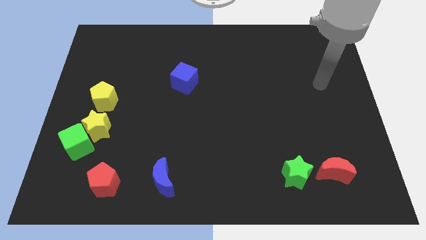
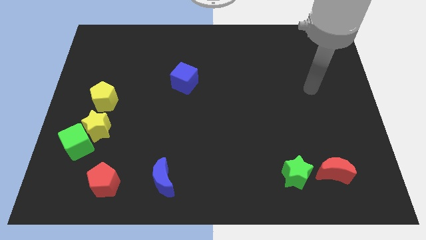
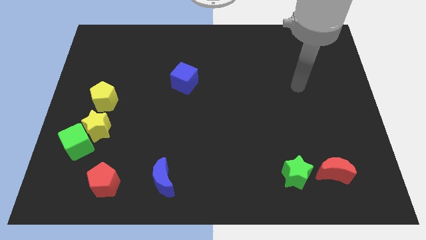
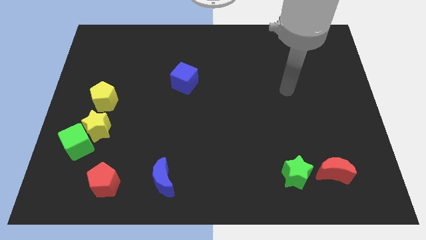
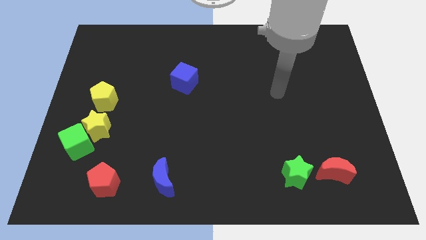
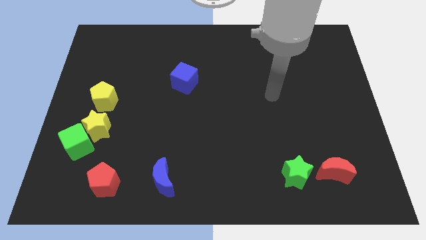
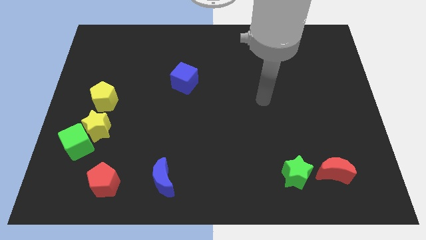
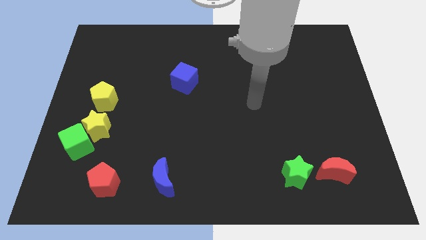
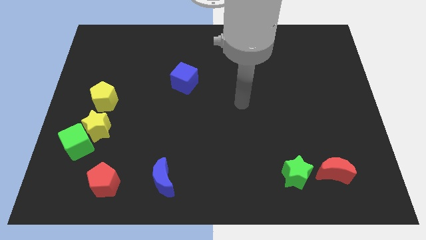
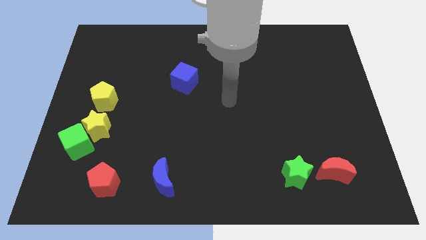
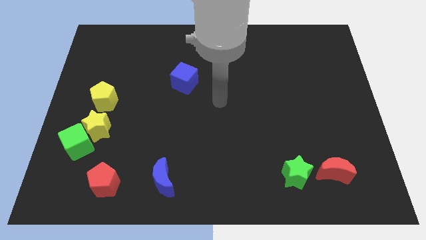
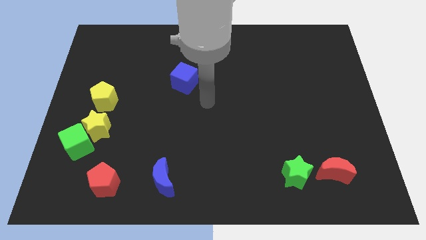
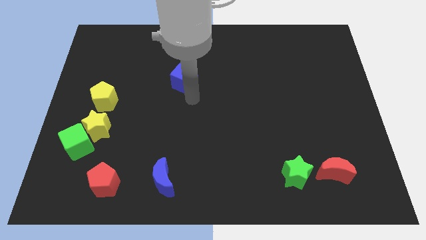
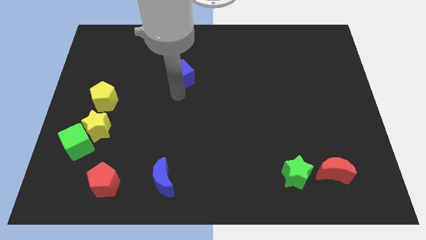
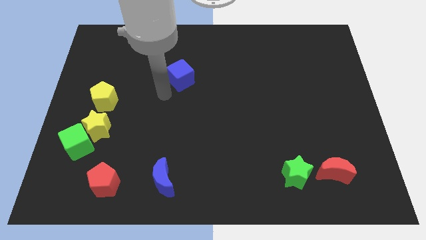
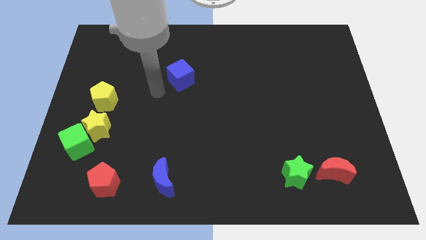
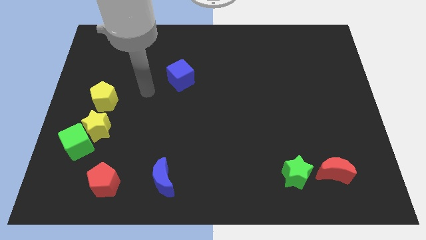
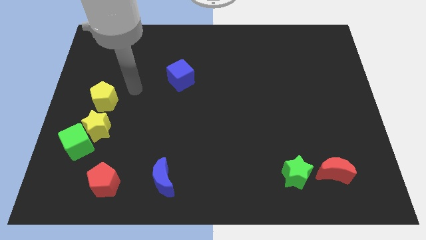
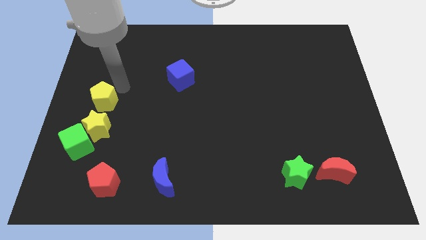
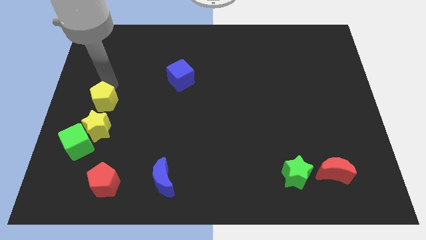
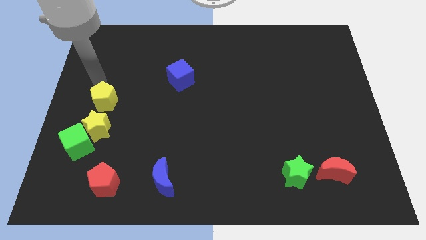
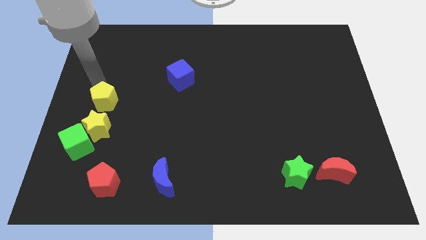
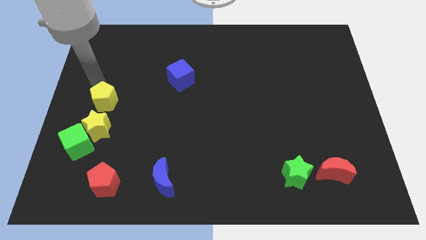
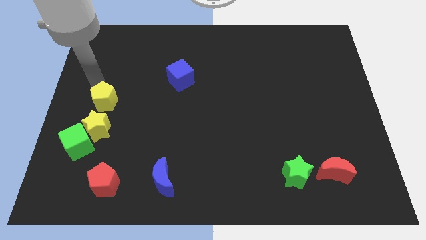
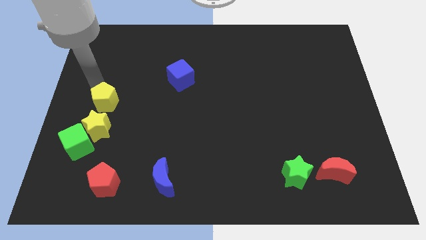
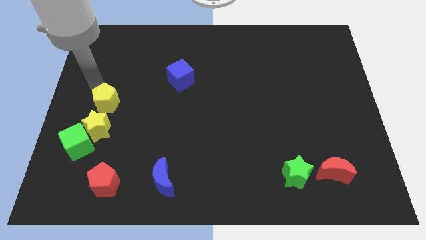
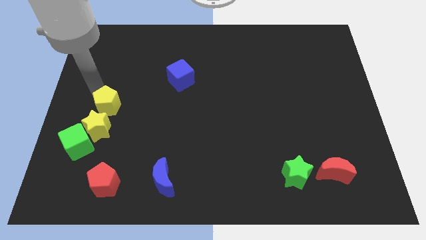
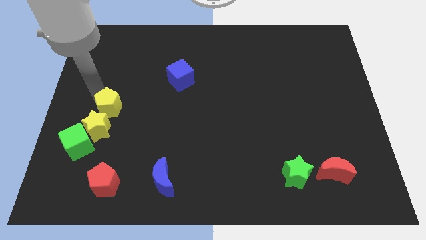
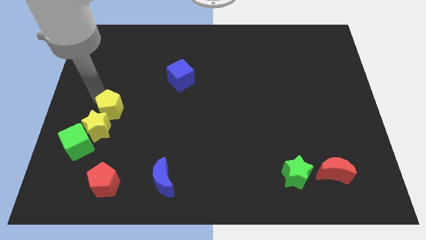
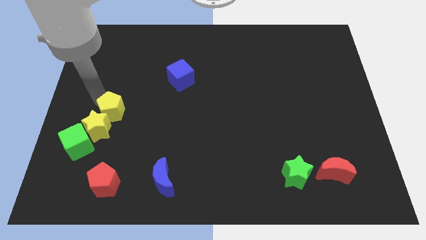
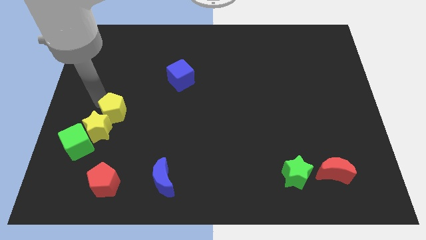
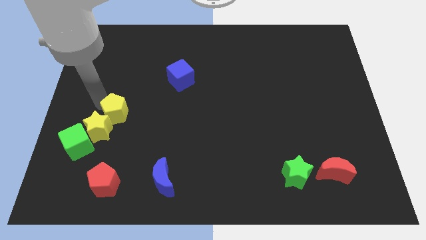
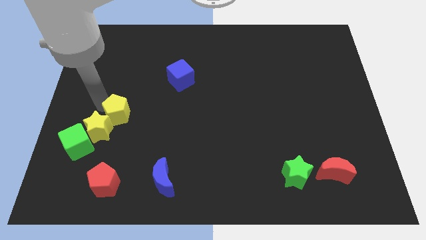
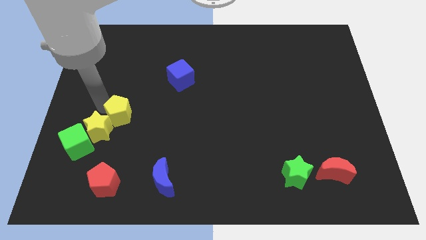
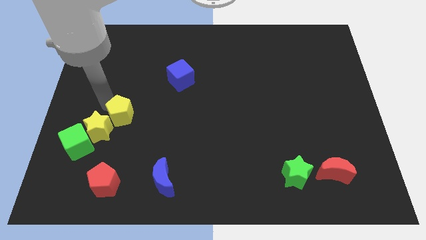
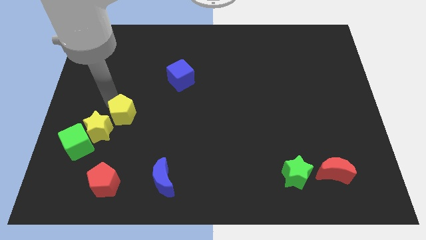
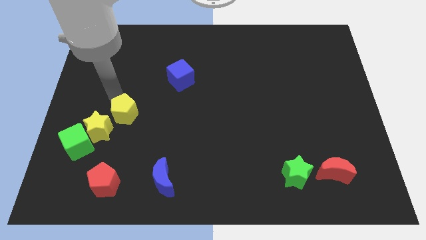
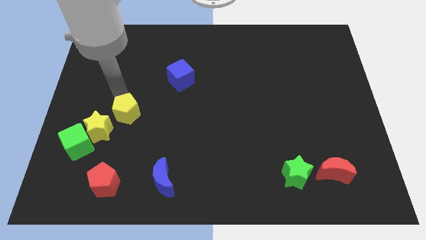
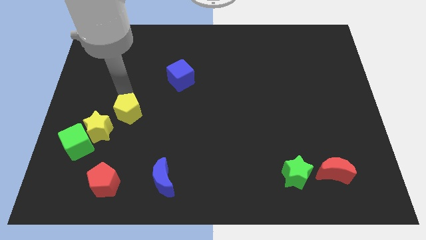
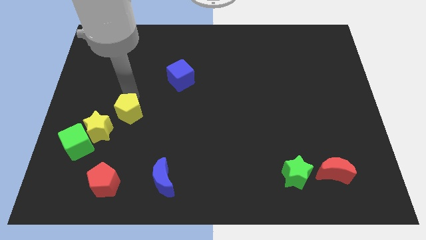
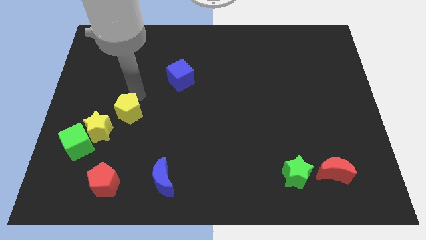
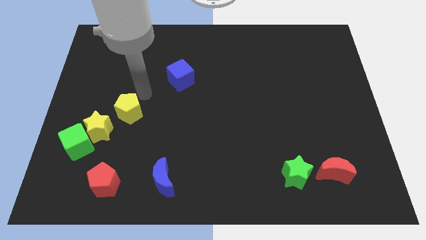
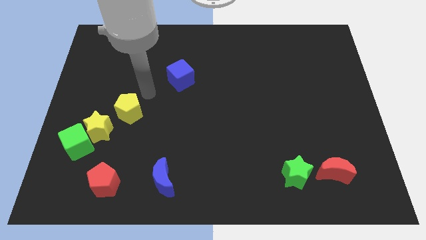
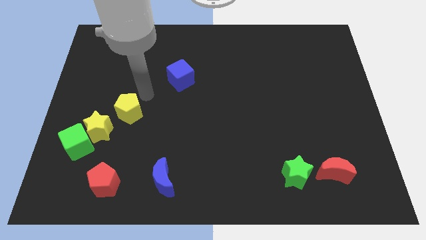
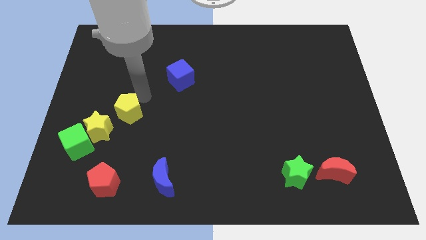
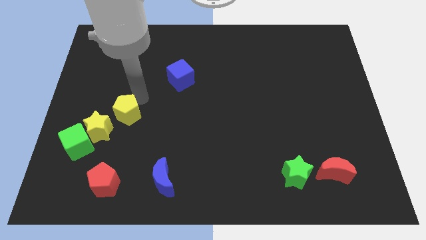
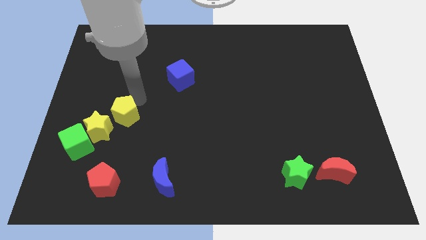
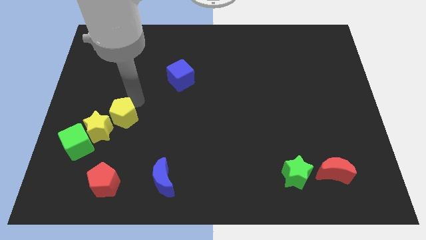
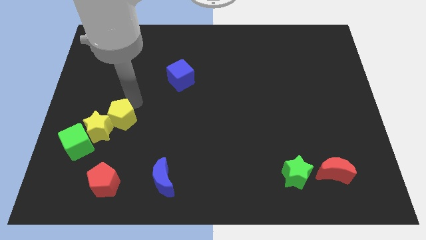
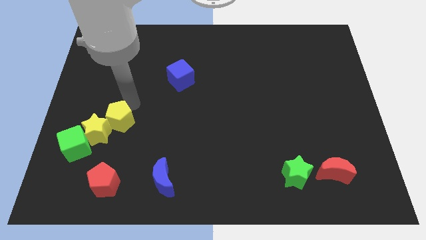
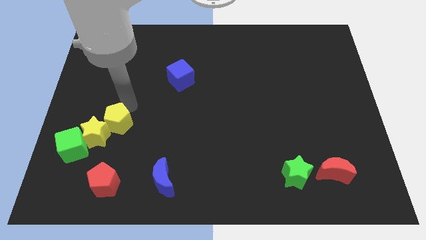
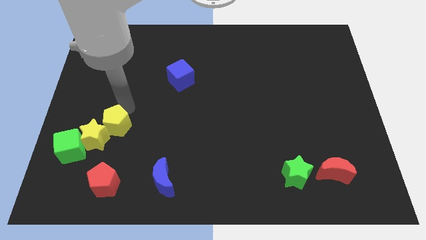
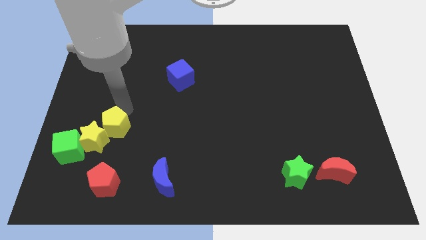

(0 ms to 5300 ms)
slightly move the yellow pentagon downwards

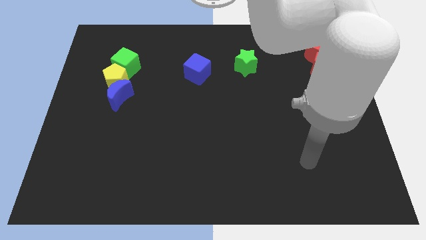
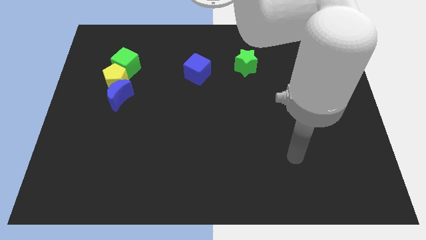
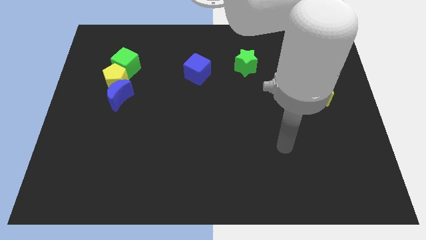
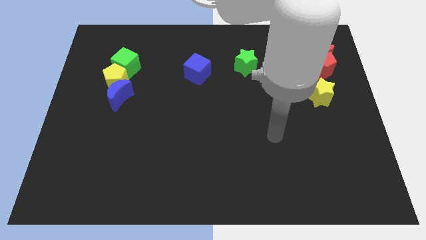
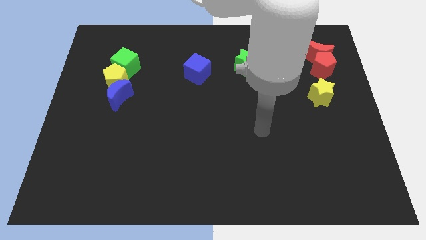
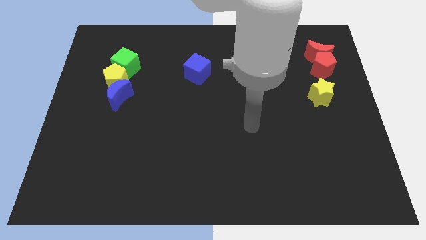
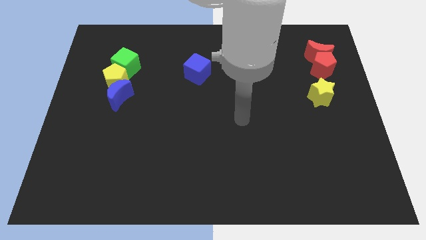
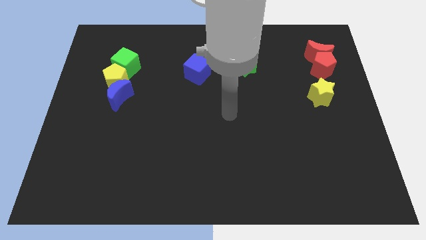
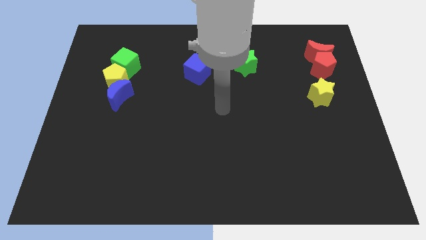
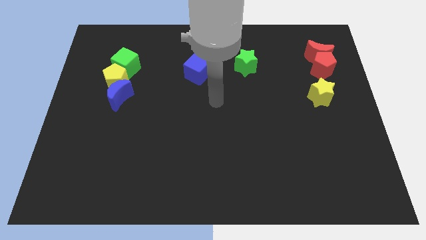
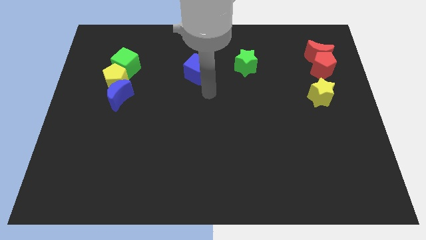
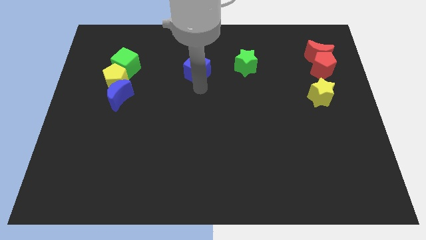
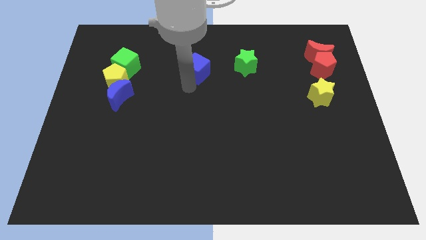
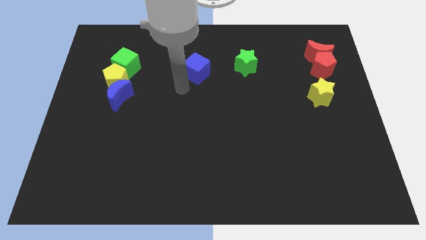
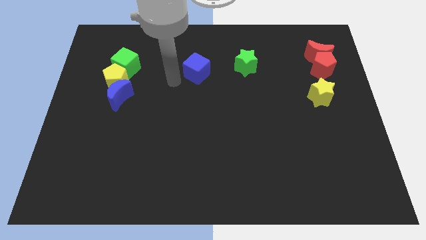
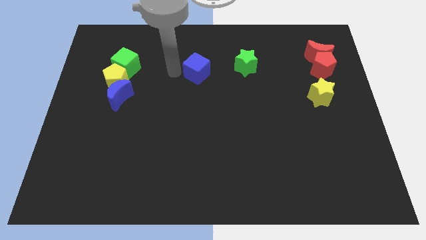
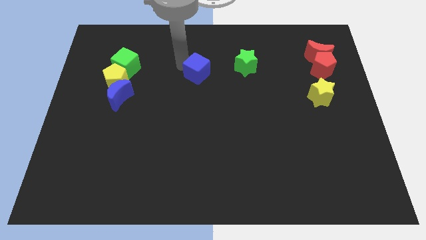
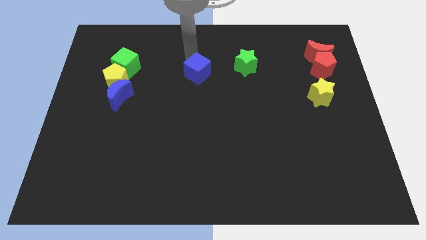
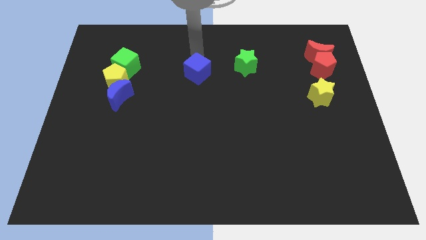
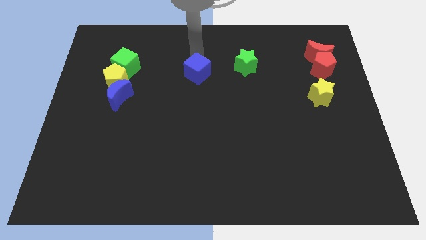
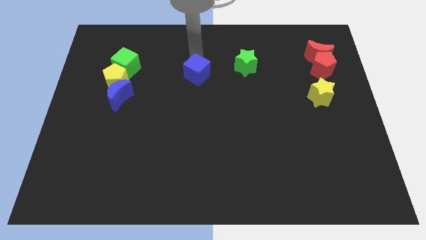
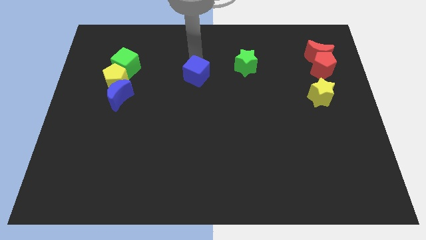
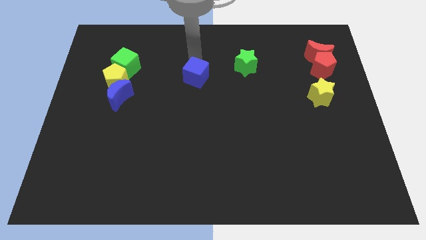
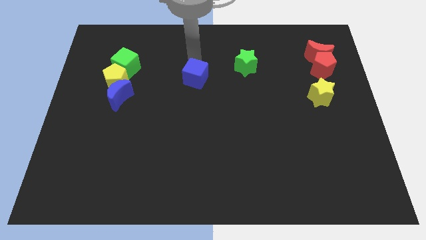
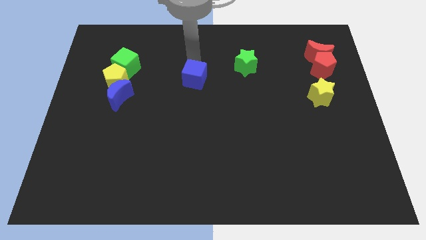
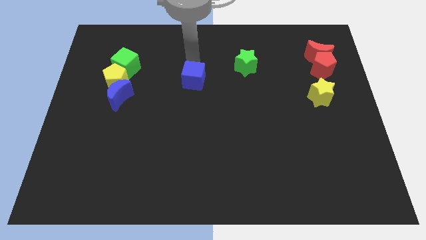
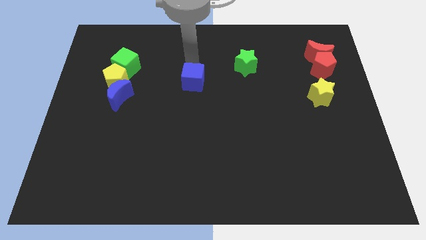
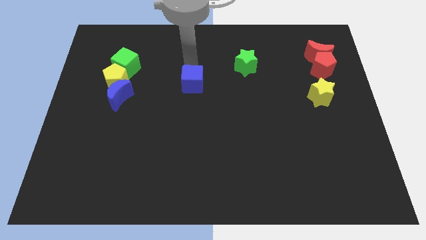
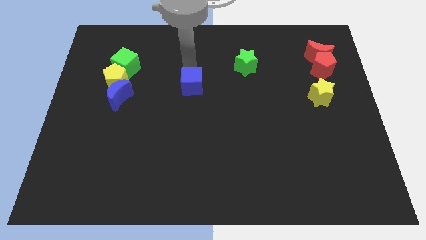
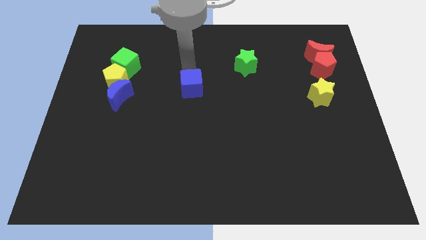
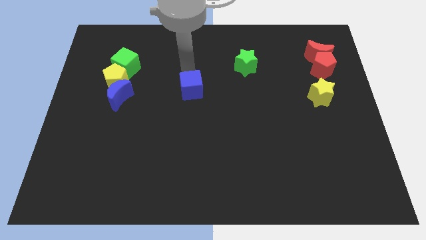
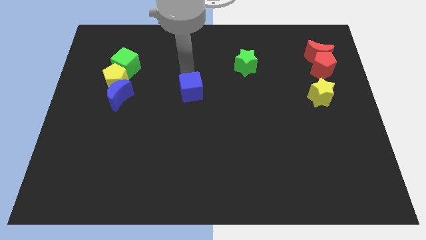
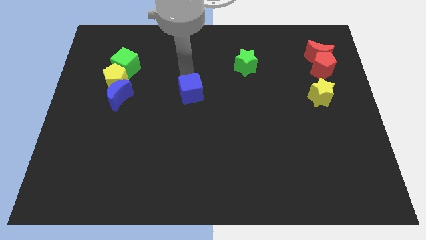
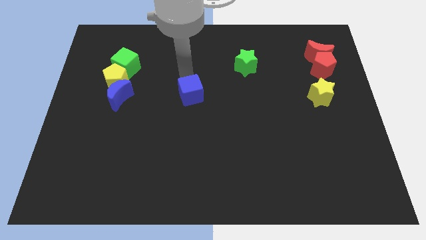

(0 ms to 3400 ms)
move the blue cube downwards a bit
